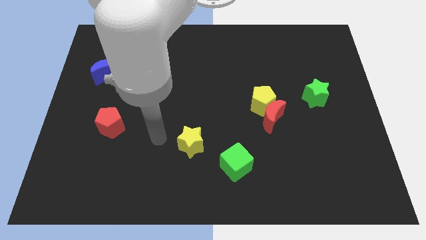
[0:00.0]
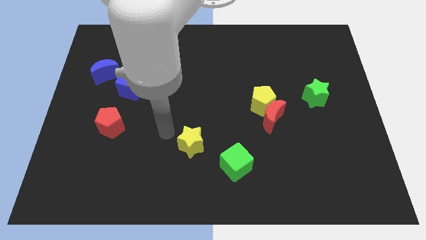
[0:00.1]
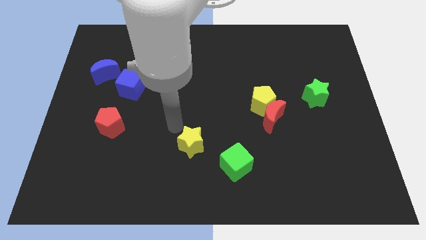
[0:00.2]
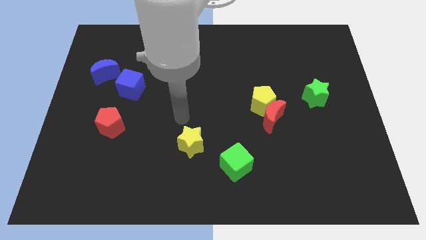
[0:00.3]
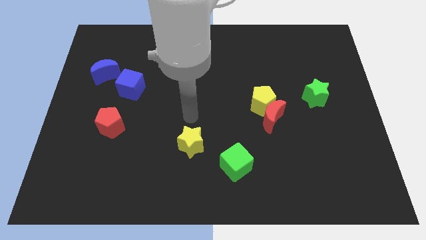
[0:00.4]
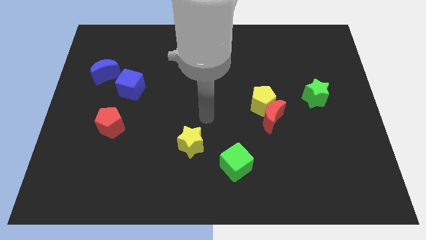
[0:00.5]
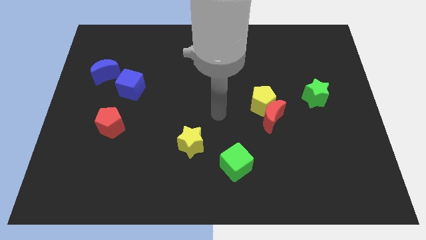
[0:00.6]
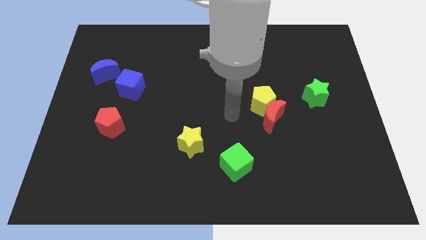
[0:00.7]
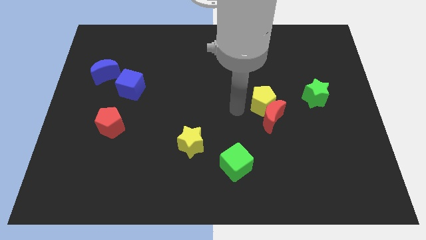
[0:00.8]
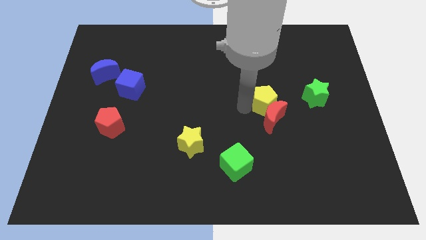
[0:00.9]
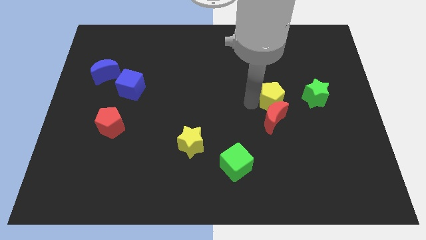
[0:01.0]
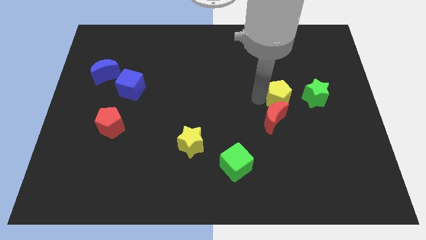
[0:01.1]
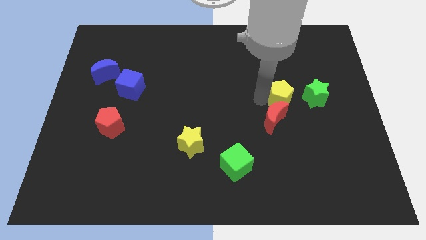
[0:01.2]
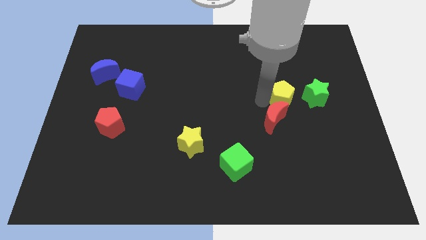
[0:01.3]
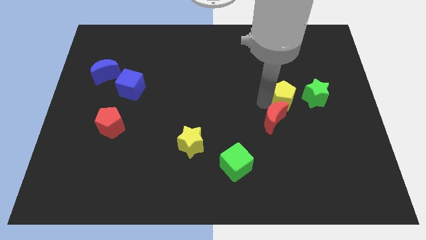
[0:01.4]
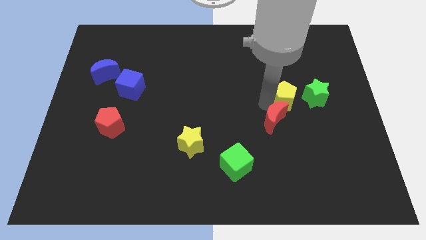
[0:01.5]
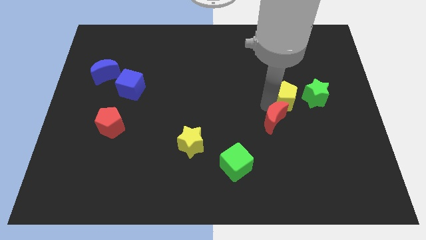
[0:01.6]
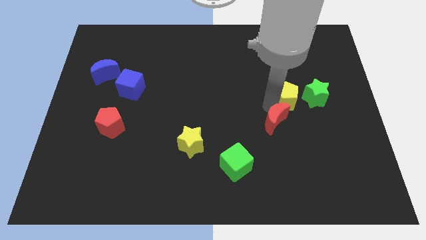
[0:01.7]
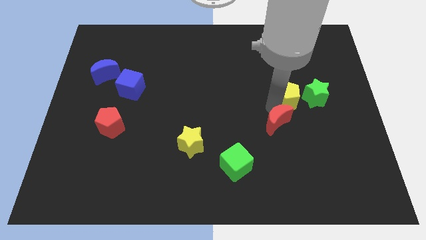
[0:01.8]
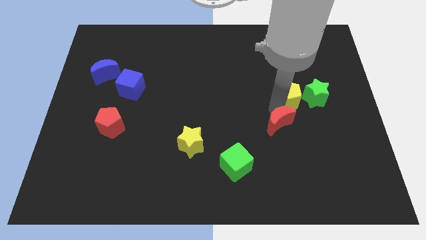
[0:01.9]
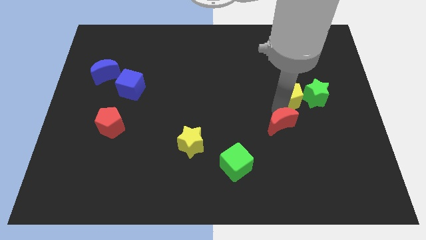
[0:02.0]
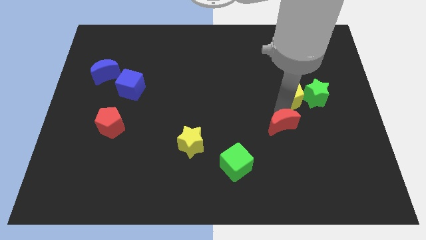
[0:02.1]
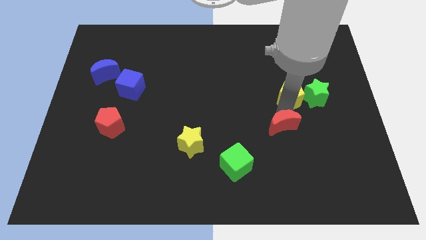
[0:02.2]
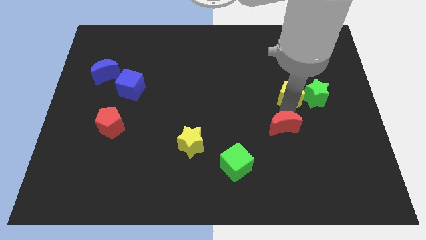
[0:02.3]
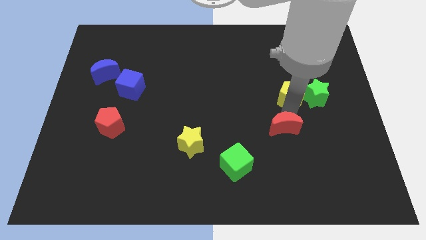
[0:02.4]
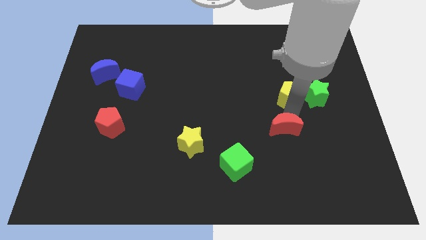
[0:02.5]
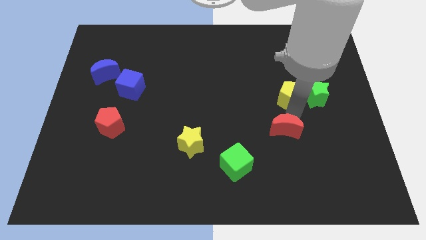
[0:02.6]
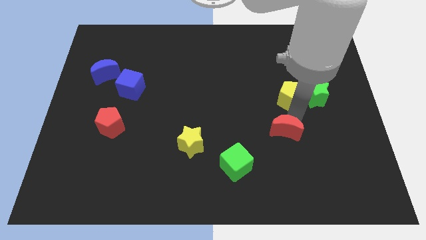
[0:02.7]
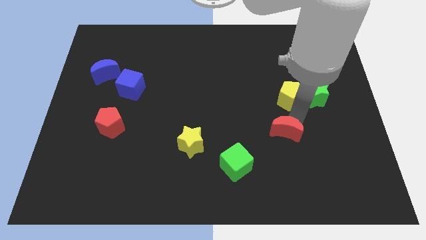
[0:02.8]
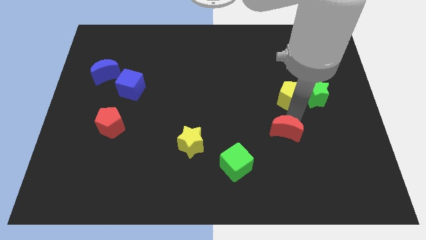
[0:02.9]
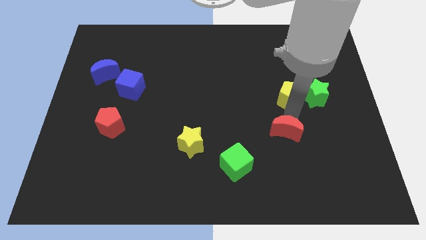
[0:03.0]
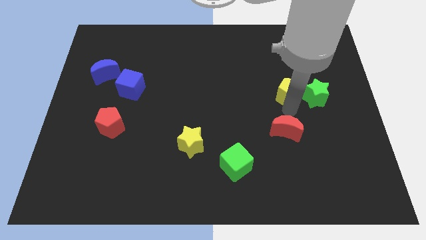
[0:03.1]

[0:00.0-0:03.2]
move the red moon away from the yellow pentagon

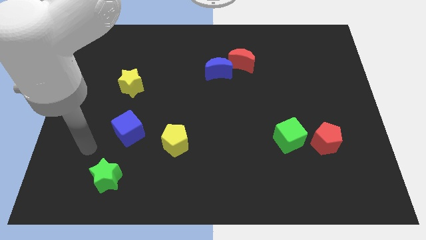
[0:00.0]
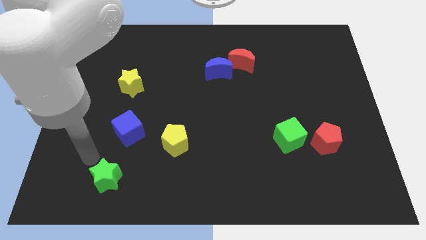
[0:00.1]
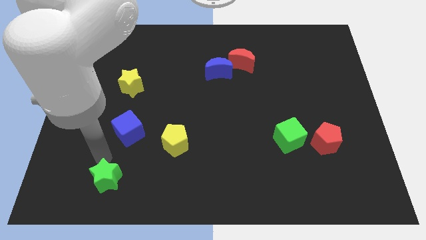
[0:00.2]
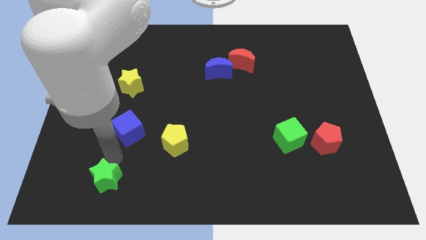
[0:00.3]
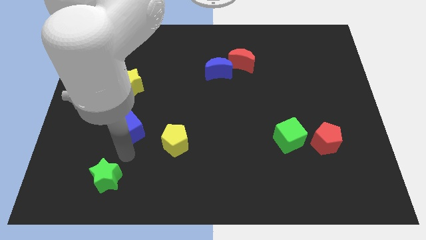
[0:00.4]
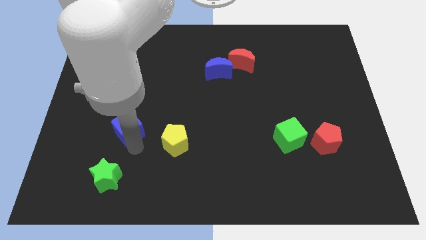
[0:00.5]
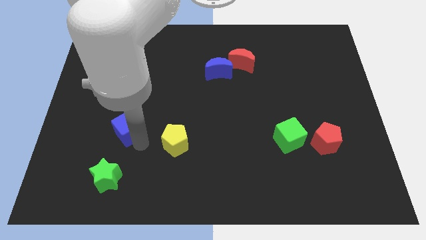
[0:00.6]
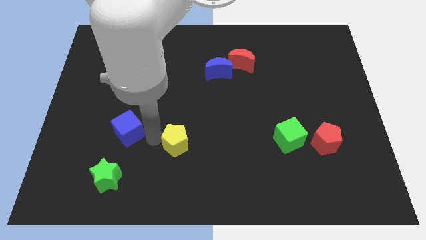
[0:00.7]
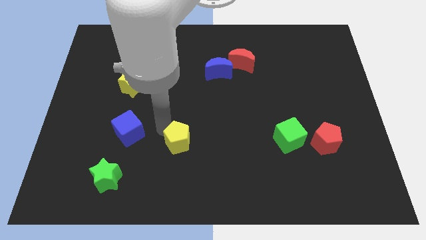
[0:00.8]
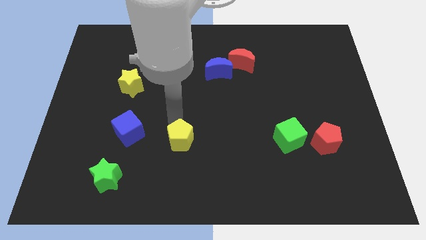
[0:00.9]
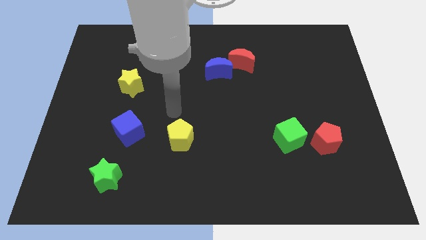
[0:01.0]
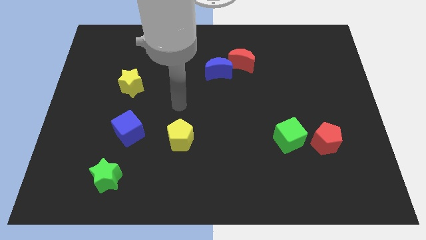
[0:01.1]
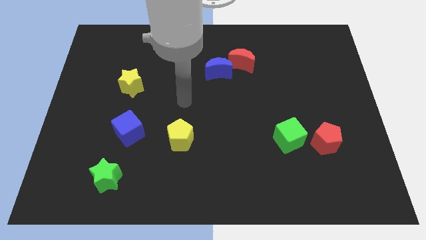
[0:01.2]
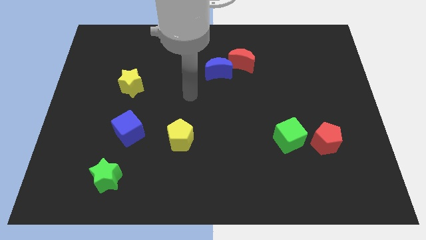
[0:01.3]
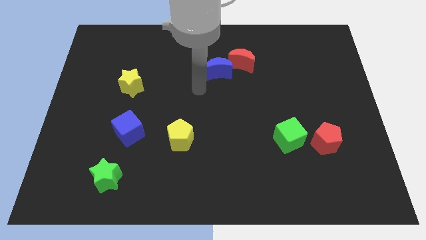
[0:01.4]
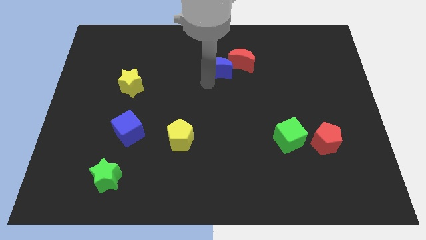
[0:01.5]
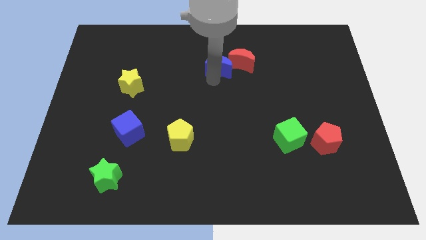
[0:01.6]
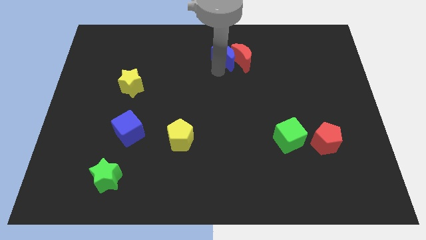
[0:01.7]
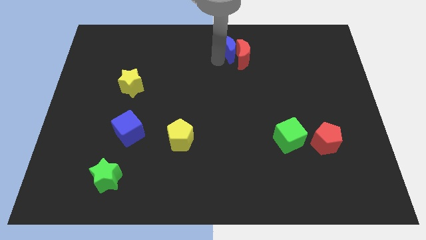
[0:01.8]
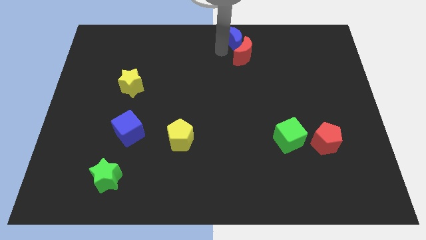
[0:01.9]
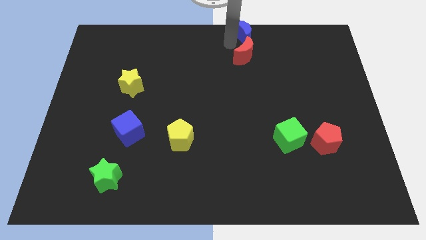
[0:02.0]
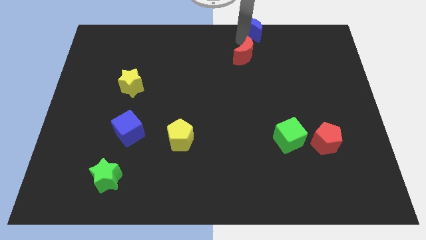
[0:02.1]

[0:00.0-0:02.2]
separate the red moon from the blue moon

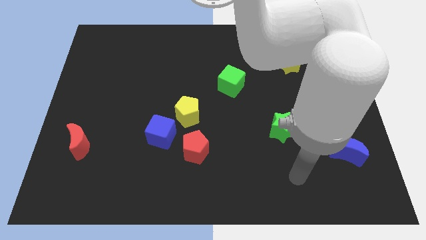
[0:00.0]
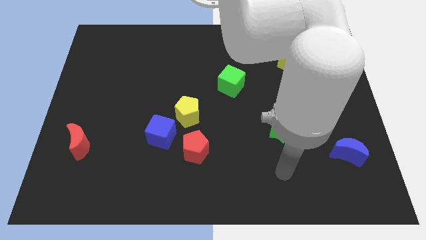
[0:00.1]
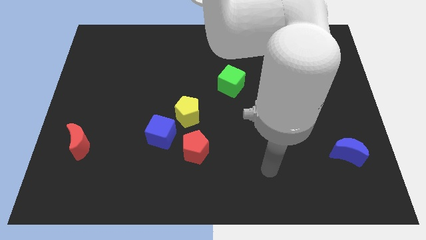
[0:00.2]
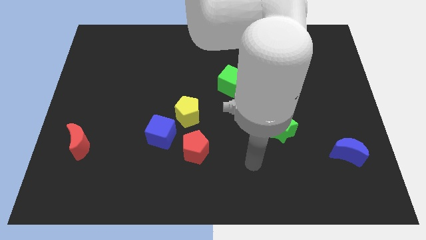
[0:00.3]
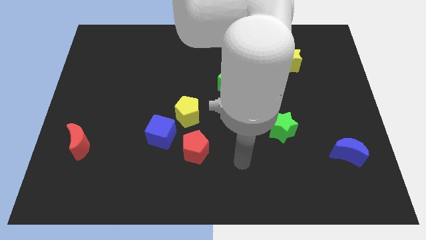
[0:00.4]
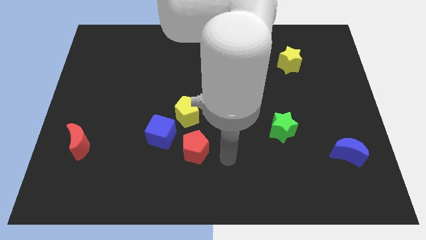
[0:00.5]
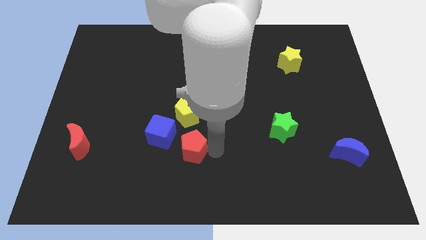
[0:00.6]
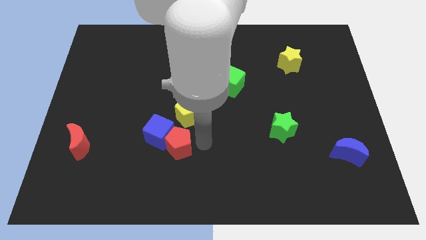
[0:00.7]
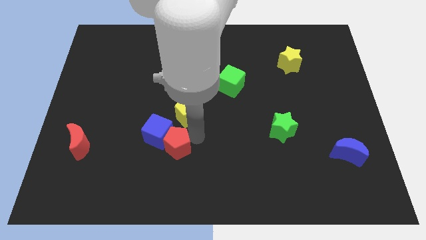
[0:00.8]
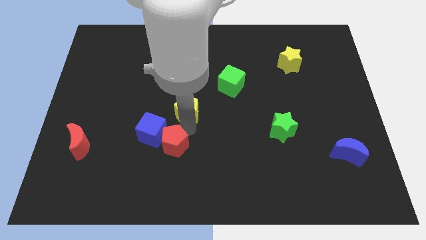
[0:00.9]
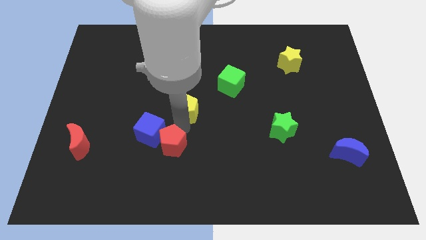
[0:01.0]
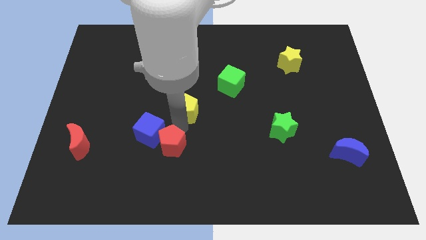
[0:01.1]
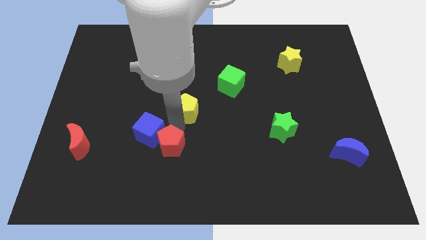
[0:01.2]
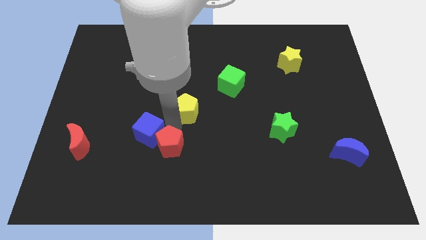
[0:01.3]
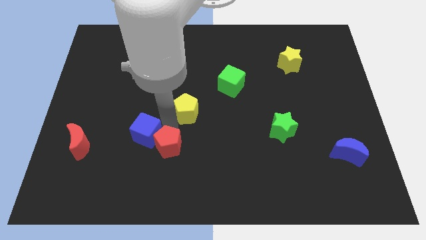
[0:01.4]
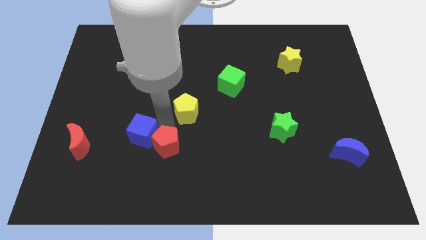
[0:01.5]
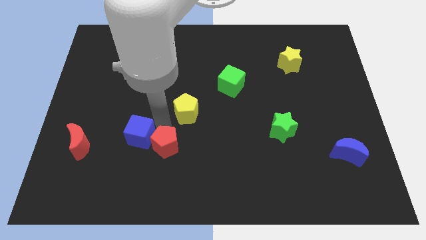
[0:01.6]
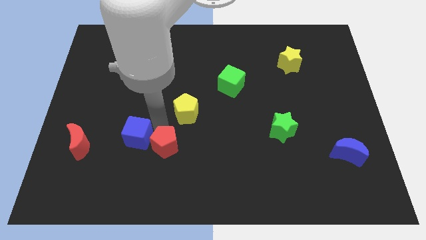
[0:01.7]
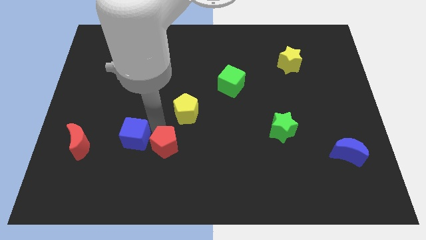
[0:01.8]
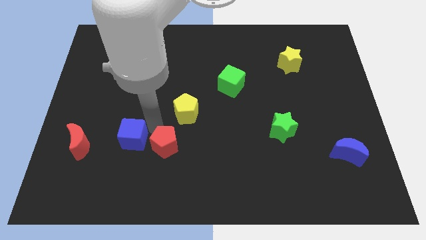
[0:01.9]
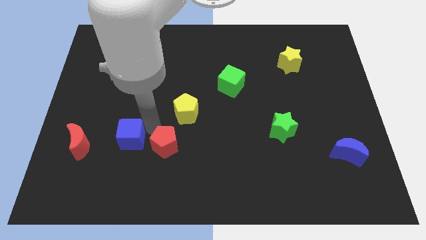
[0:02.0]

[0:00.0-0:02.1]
pull the blue cube apart from the yellow pentagon and red pentagon

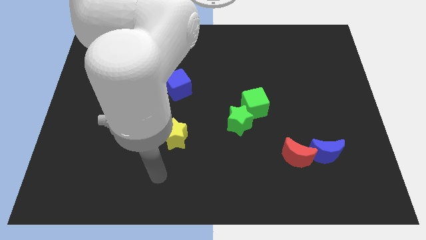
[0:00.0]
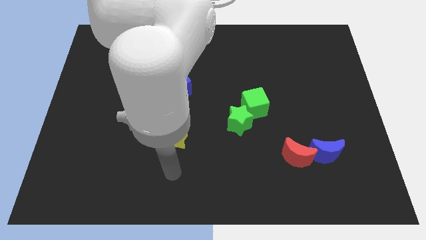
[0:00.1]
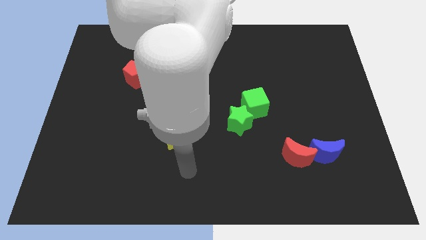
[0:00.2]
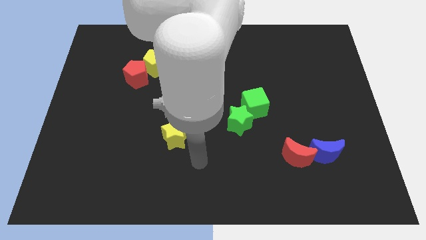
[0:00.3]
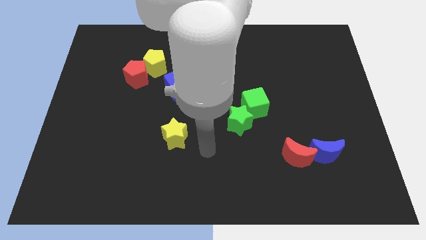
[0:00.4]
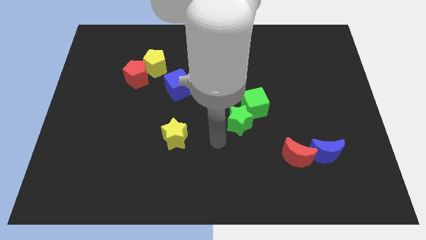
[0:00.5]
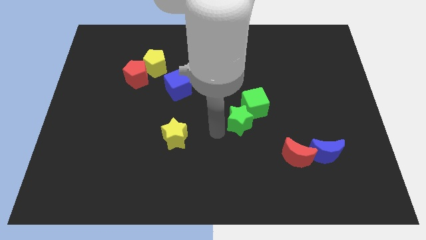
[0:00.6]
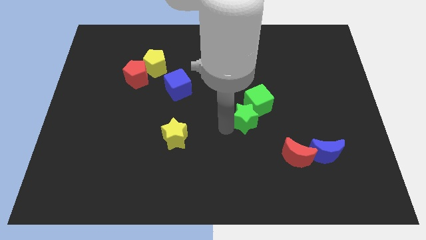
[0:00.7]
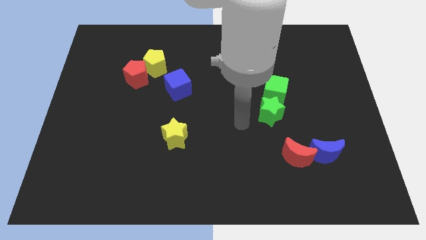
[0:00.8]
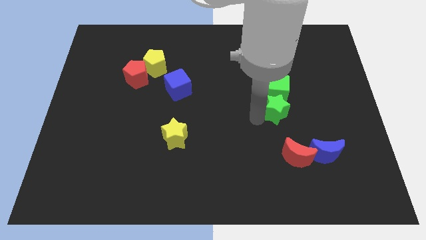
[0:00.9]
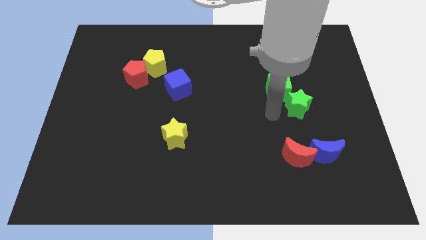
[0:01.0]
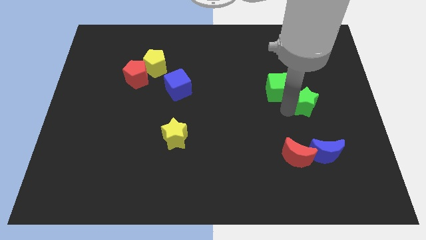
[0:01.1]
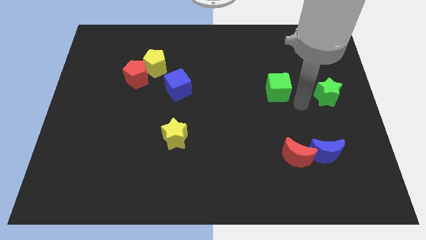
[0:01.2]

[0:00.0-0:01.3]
move the green cube away from the green star

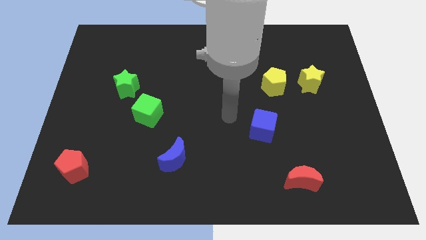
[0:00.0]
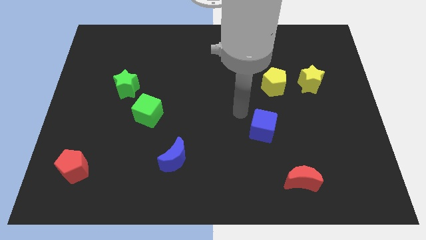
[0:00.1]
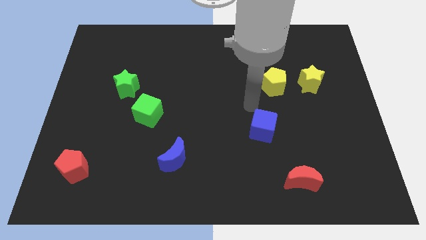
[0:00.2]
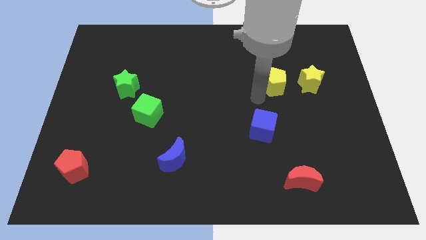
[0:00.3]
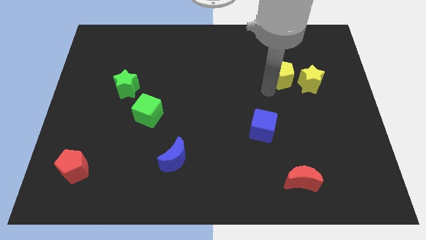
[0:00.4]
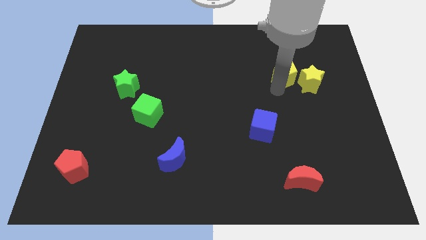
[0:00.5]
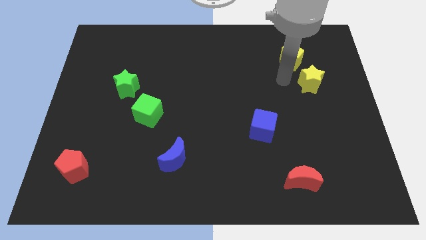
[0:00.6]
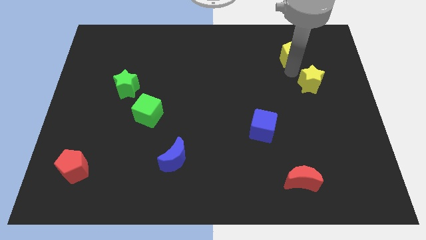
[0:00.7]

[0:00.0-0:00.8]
move the yellow star away from the yellow pentagon
